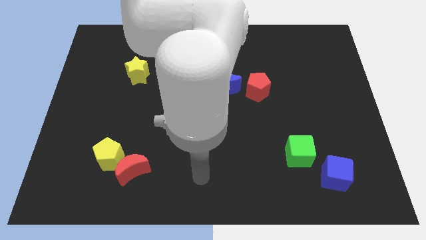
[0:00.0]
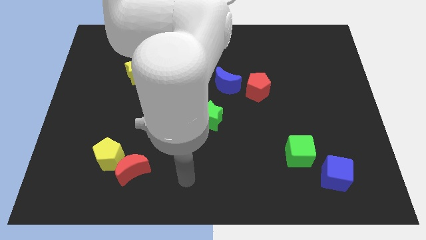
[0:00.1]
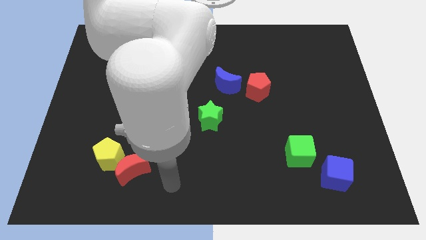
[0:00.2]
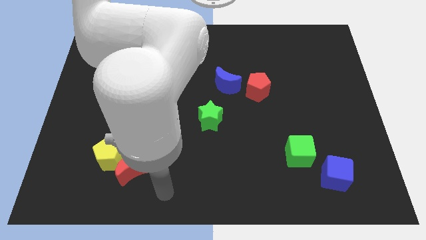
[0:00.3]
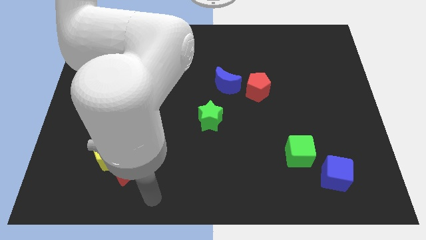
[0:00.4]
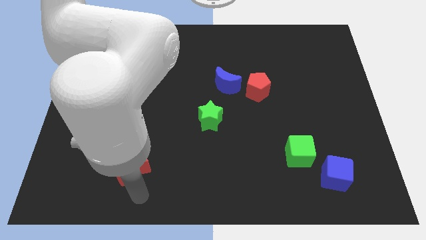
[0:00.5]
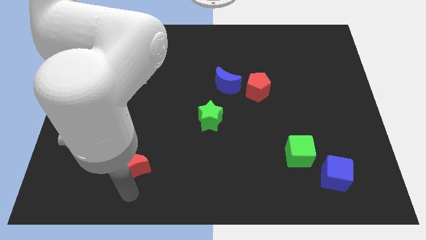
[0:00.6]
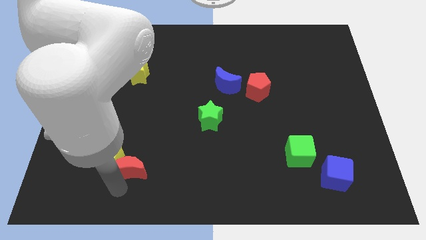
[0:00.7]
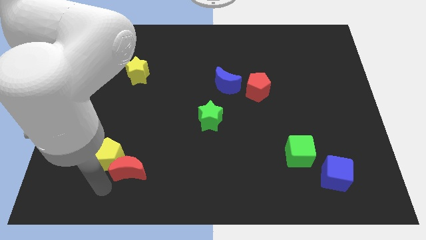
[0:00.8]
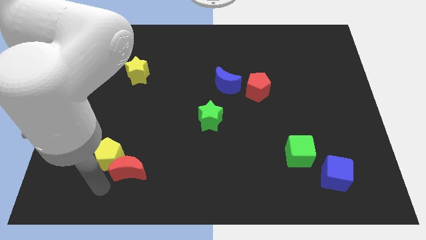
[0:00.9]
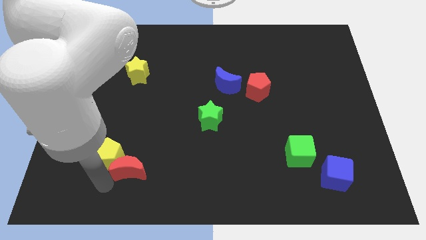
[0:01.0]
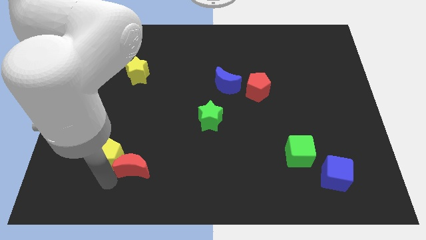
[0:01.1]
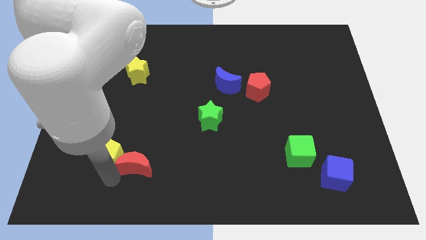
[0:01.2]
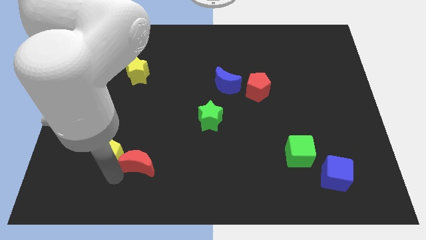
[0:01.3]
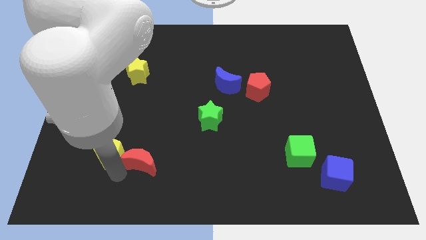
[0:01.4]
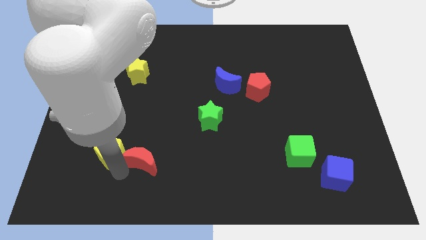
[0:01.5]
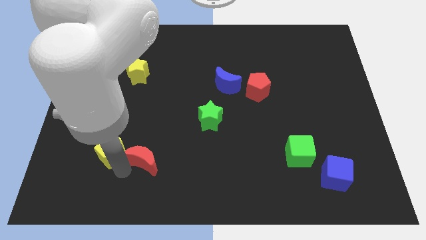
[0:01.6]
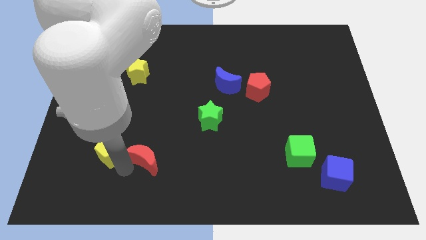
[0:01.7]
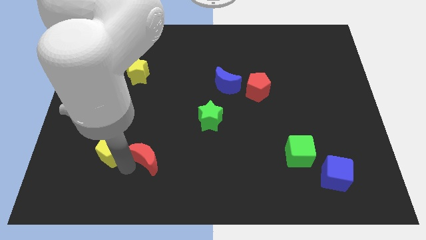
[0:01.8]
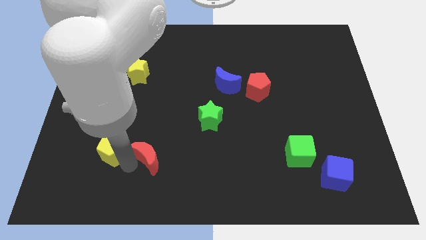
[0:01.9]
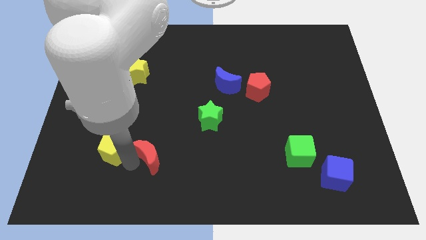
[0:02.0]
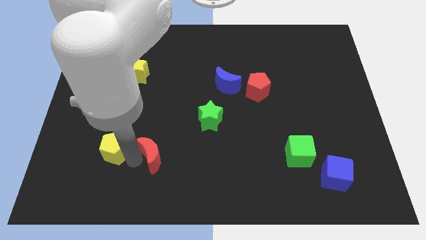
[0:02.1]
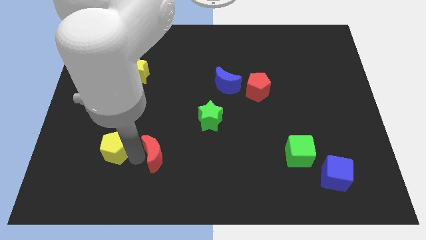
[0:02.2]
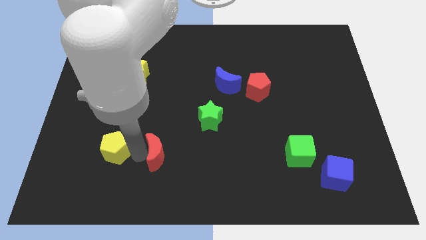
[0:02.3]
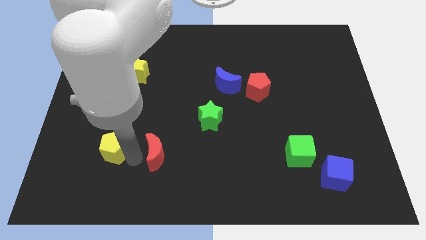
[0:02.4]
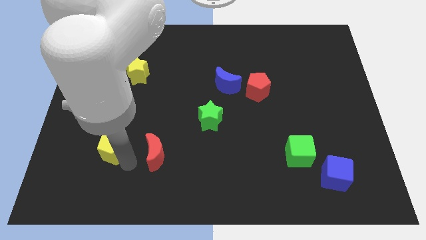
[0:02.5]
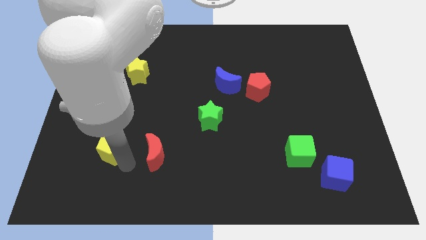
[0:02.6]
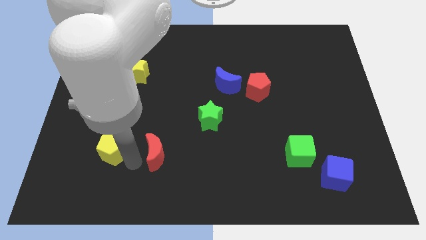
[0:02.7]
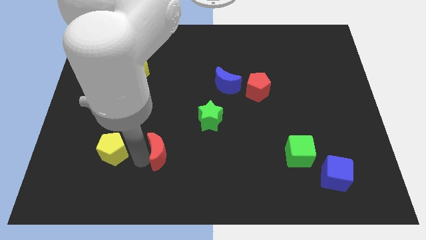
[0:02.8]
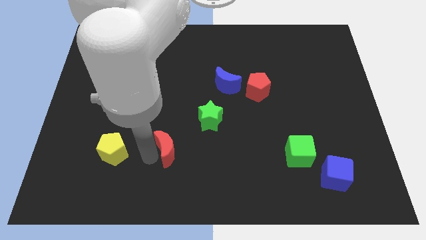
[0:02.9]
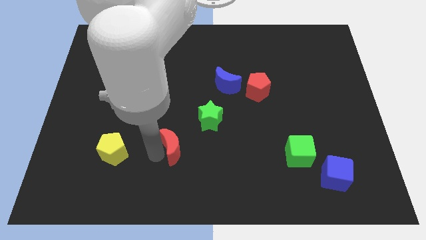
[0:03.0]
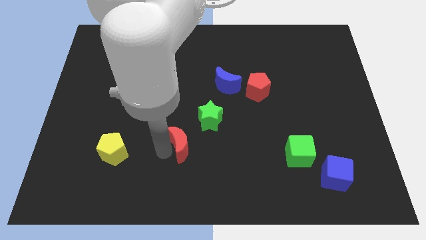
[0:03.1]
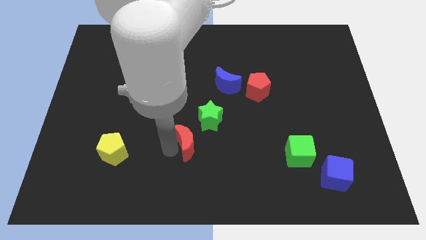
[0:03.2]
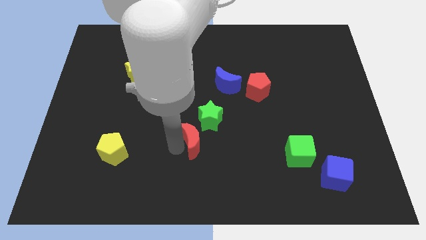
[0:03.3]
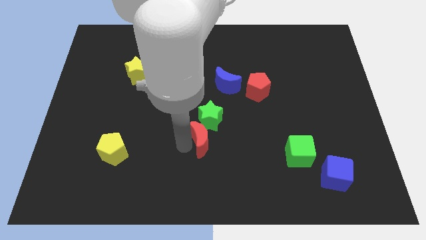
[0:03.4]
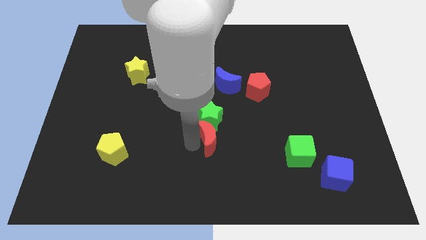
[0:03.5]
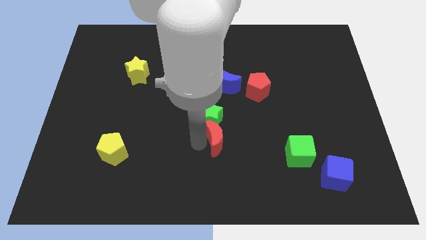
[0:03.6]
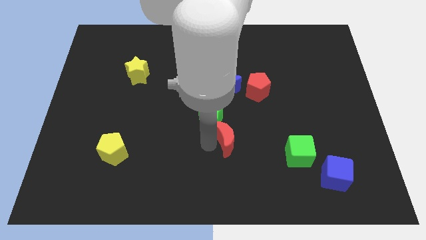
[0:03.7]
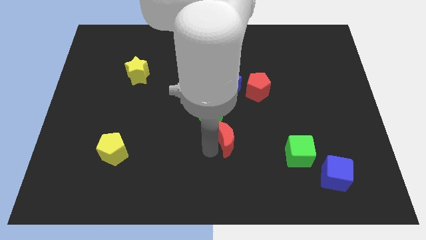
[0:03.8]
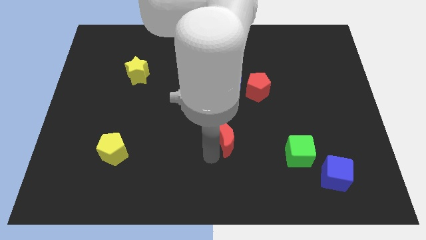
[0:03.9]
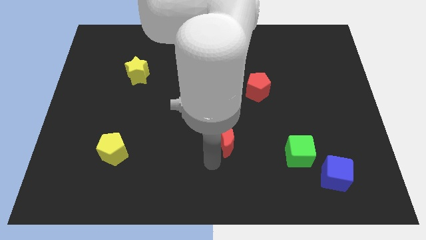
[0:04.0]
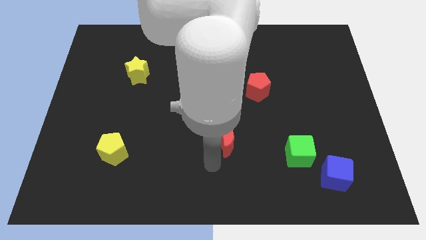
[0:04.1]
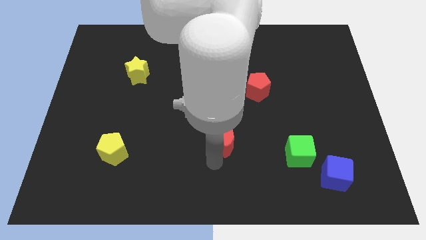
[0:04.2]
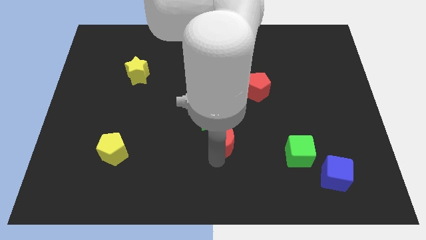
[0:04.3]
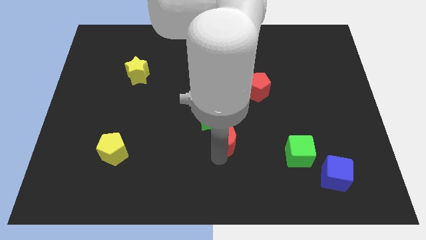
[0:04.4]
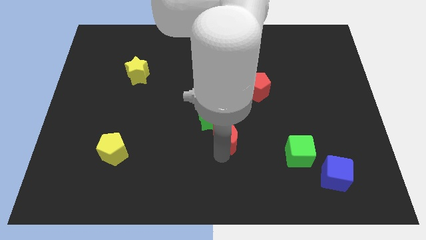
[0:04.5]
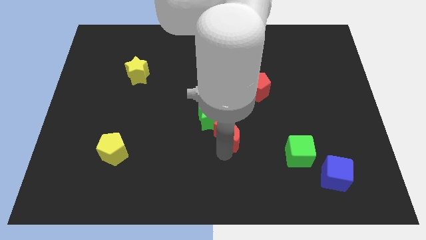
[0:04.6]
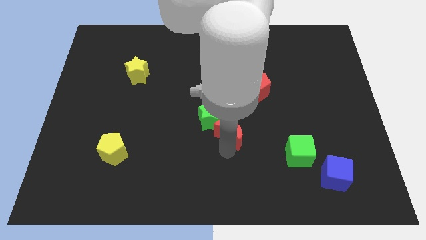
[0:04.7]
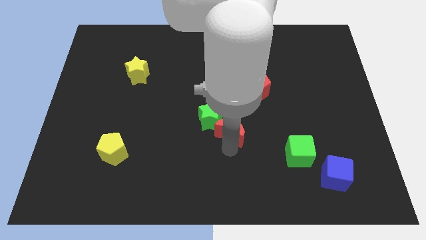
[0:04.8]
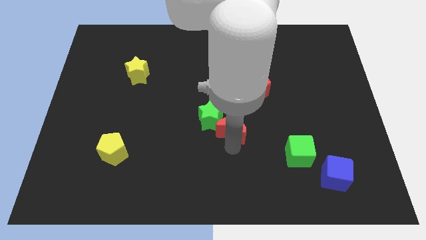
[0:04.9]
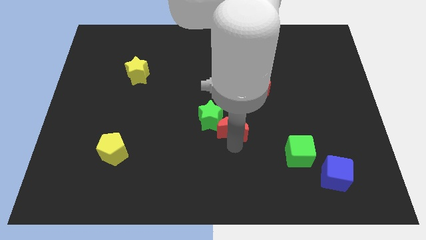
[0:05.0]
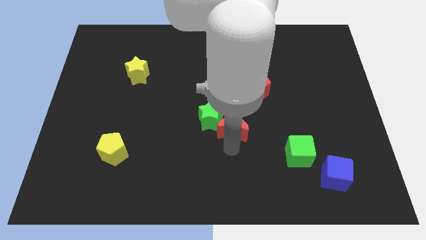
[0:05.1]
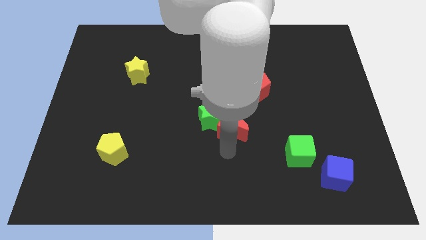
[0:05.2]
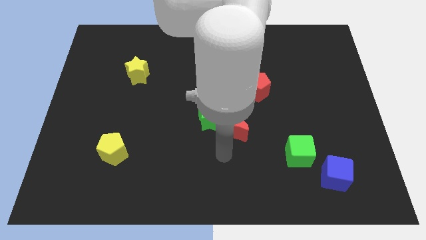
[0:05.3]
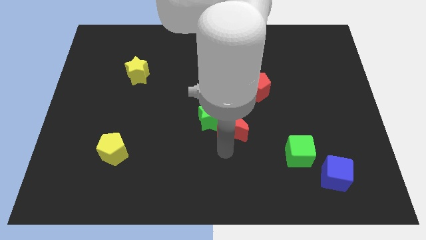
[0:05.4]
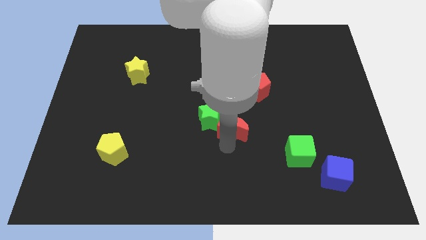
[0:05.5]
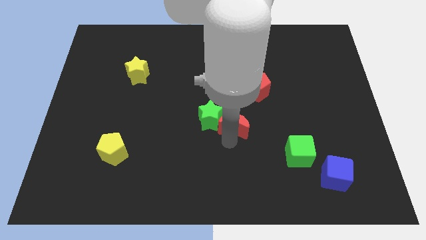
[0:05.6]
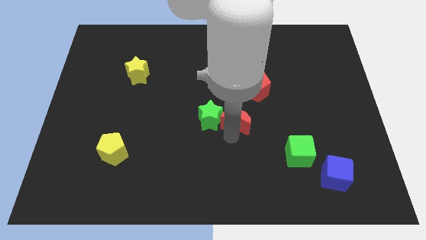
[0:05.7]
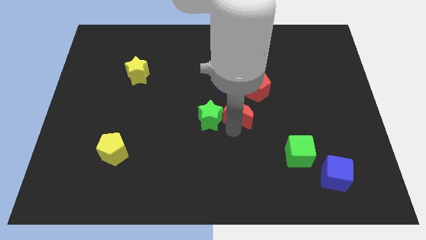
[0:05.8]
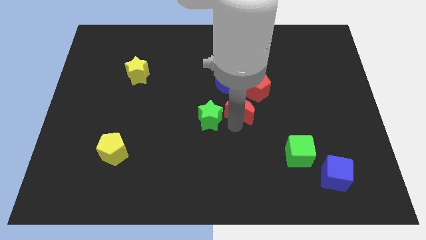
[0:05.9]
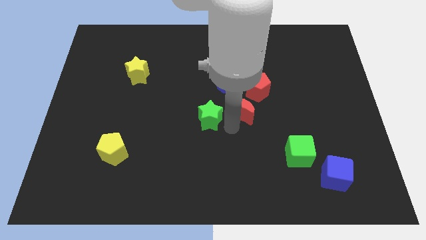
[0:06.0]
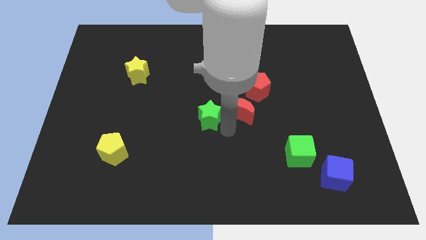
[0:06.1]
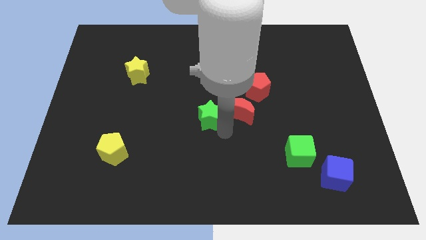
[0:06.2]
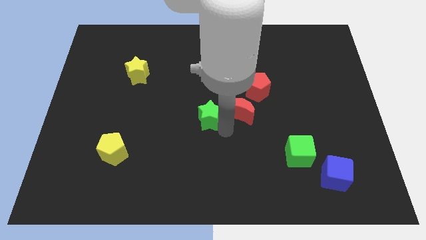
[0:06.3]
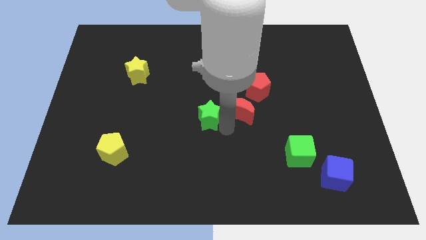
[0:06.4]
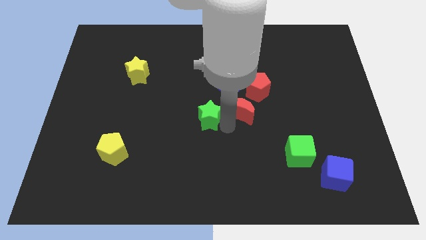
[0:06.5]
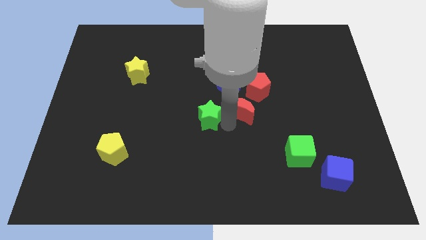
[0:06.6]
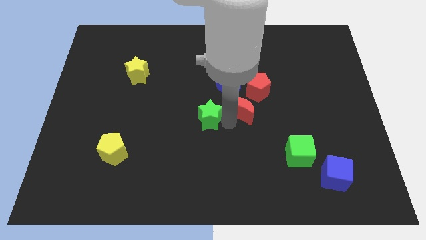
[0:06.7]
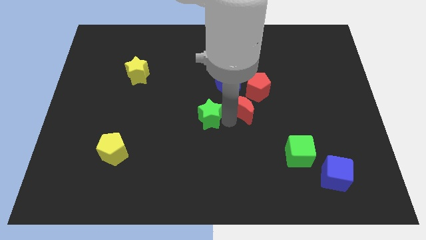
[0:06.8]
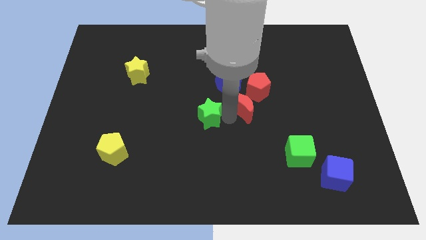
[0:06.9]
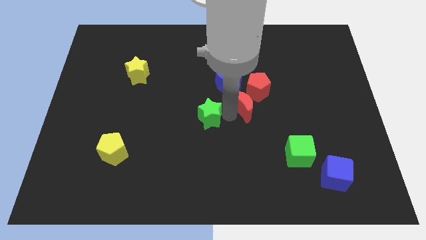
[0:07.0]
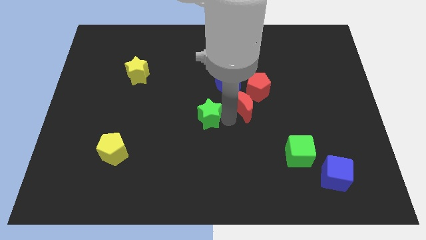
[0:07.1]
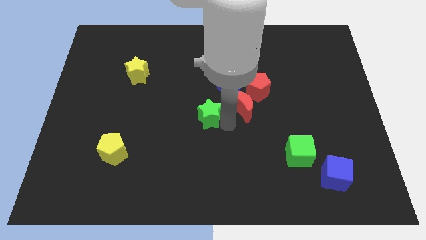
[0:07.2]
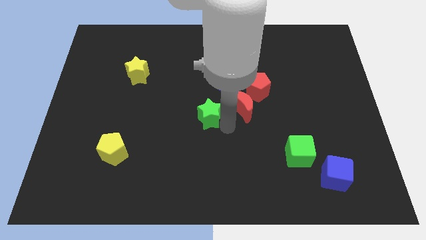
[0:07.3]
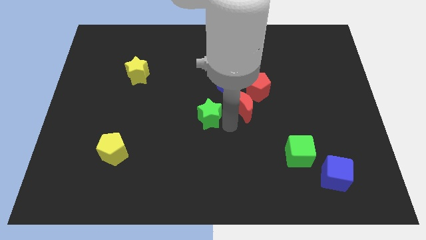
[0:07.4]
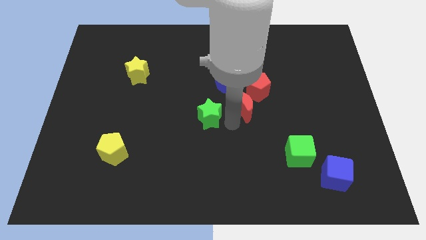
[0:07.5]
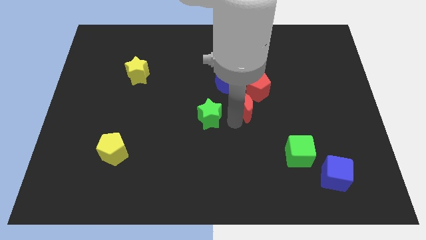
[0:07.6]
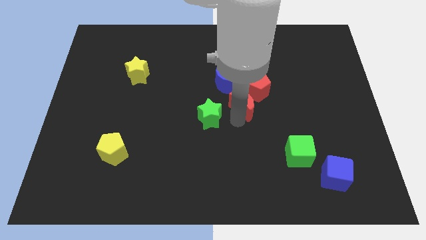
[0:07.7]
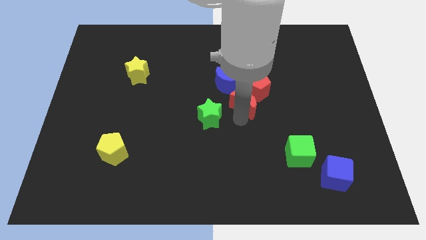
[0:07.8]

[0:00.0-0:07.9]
put the red moon close to the red pentagon
